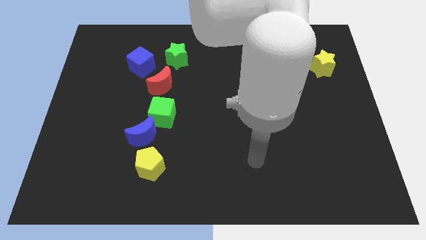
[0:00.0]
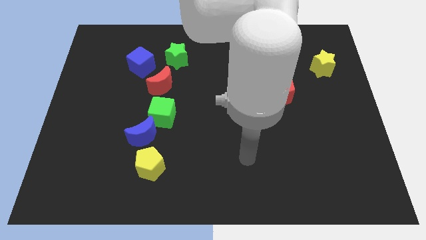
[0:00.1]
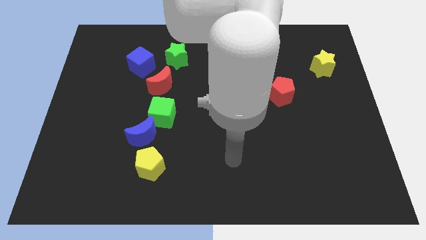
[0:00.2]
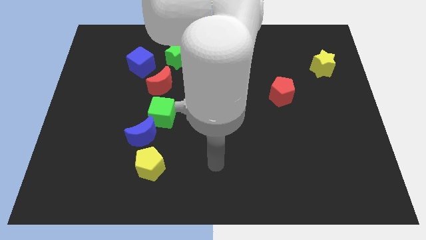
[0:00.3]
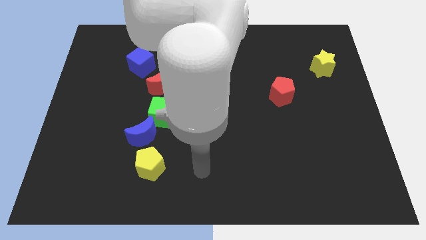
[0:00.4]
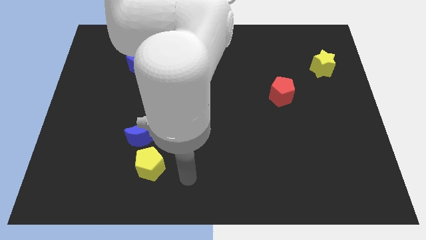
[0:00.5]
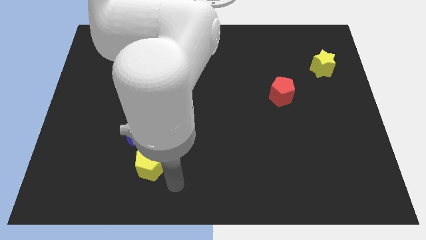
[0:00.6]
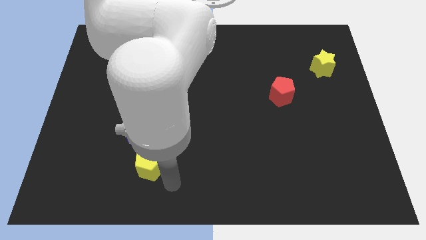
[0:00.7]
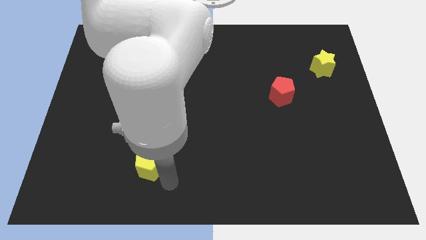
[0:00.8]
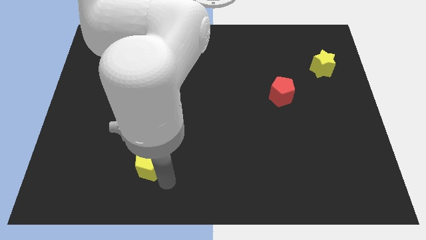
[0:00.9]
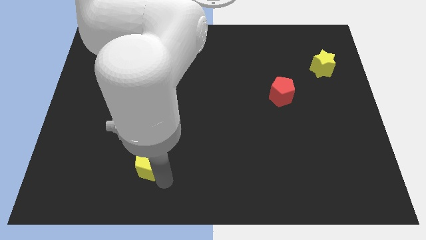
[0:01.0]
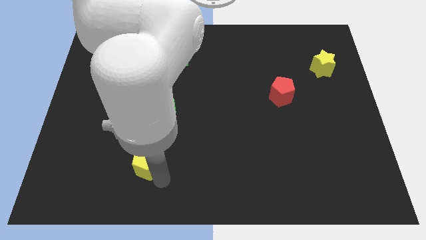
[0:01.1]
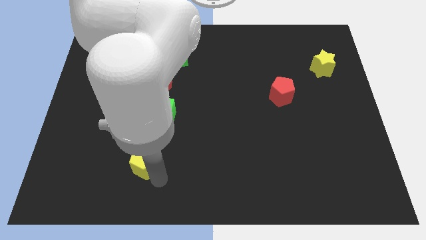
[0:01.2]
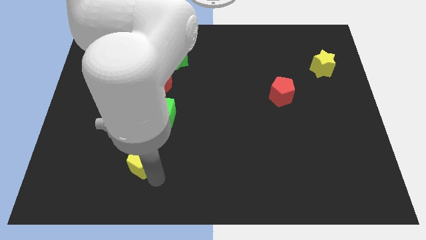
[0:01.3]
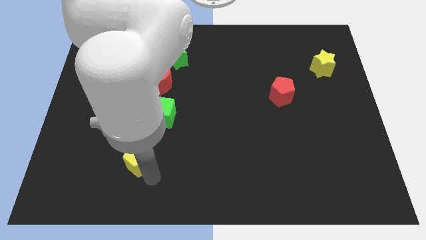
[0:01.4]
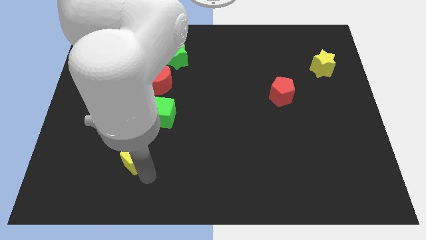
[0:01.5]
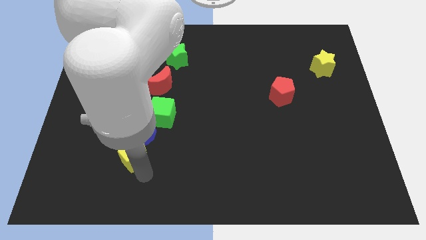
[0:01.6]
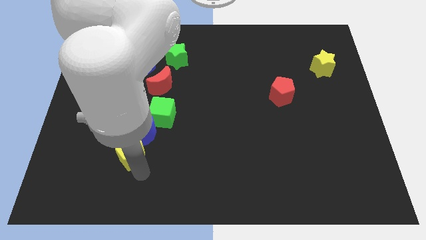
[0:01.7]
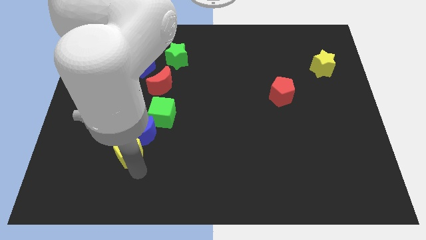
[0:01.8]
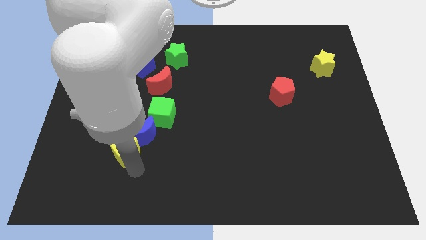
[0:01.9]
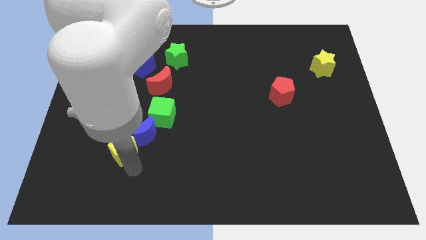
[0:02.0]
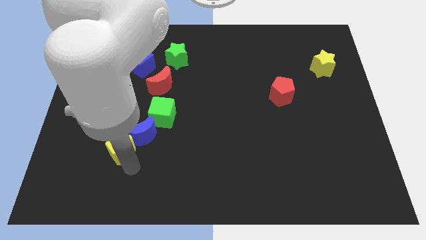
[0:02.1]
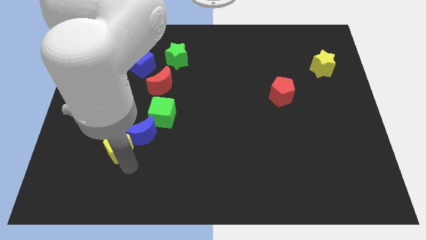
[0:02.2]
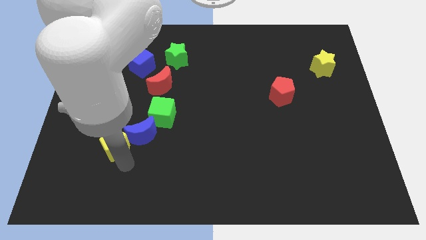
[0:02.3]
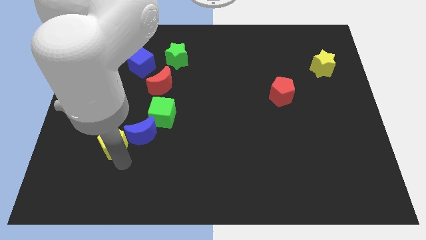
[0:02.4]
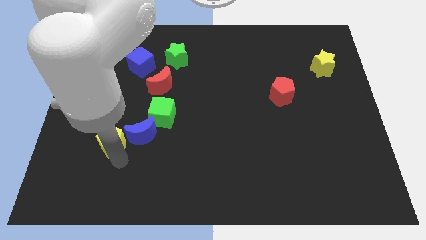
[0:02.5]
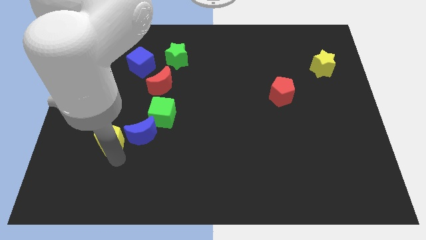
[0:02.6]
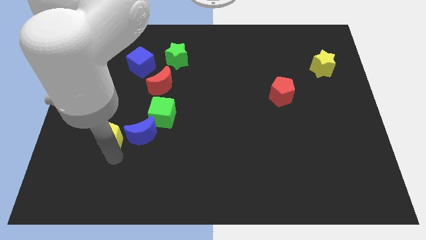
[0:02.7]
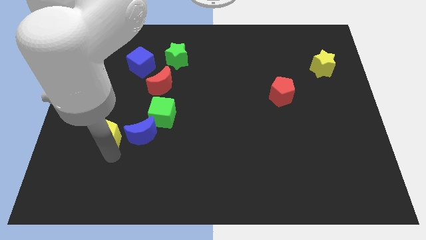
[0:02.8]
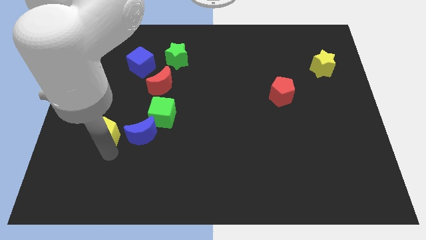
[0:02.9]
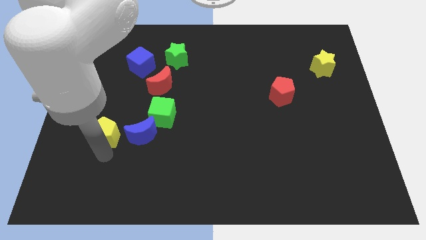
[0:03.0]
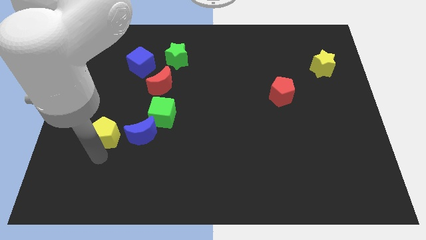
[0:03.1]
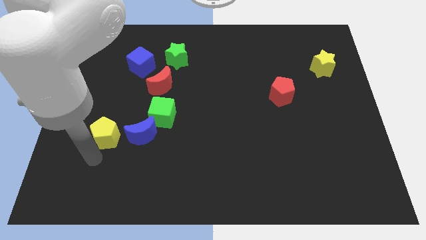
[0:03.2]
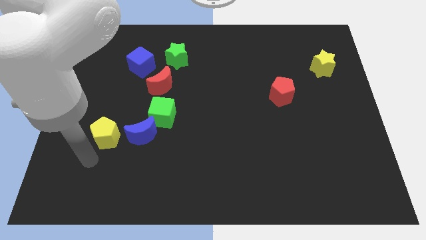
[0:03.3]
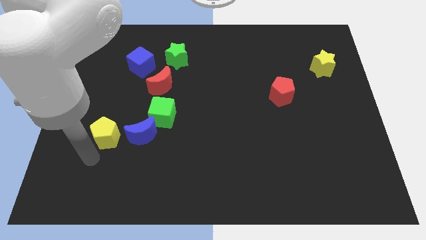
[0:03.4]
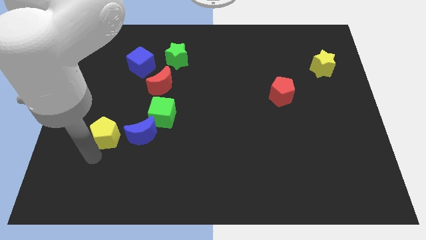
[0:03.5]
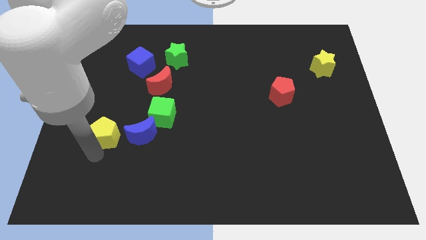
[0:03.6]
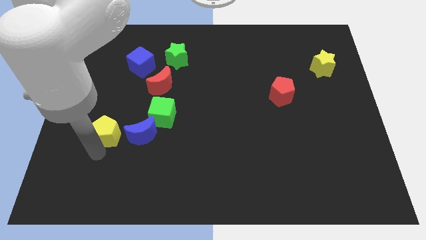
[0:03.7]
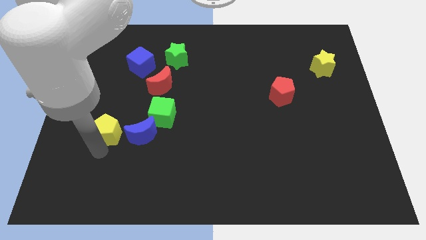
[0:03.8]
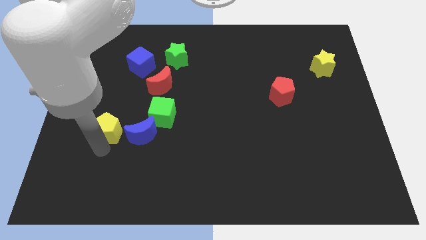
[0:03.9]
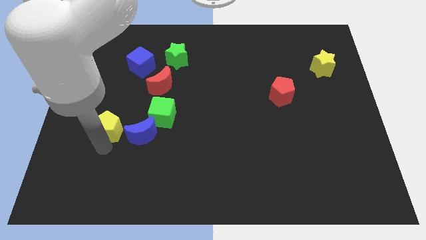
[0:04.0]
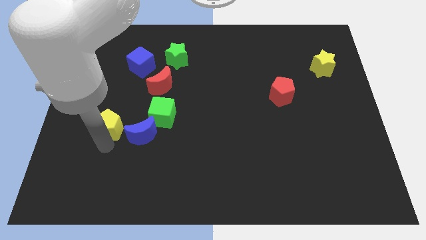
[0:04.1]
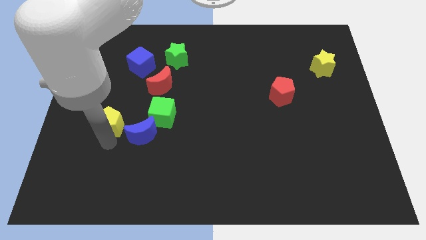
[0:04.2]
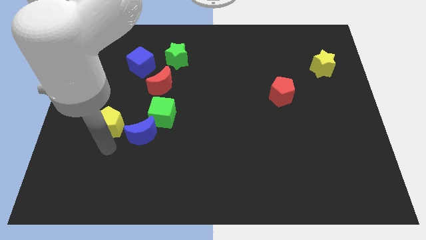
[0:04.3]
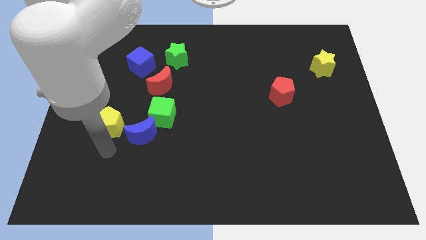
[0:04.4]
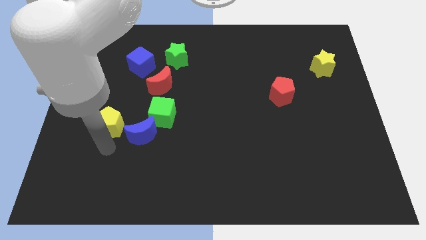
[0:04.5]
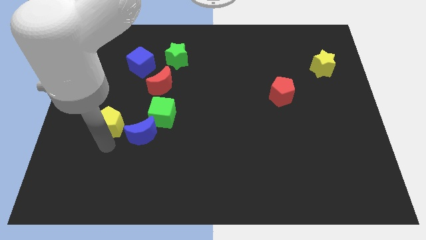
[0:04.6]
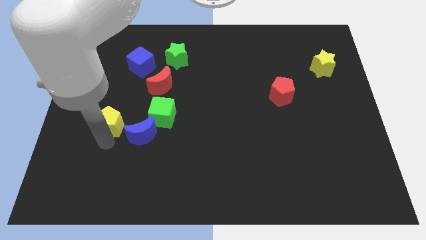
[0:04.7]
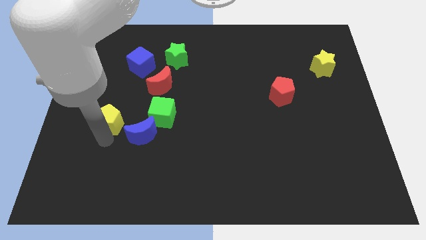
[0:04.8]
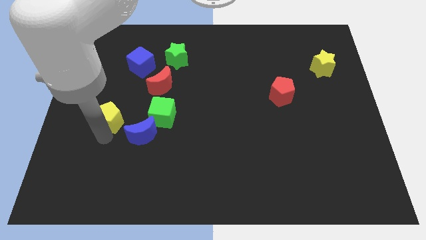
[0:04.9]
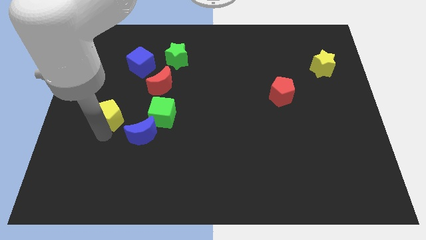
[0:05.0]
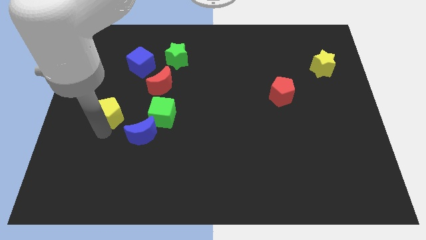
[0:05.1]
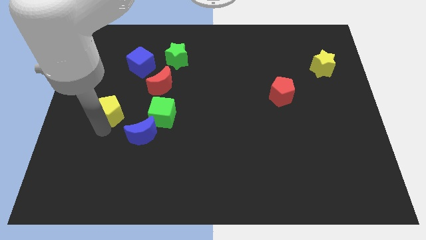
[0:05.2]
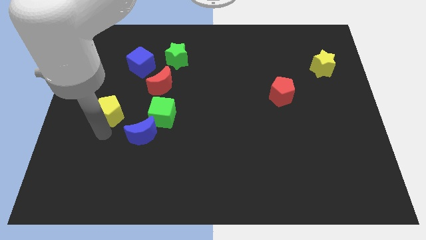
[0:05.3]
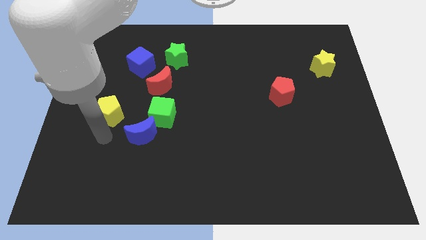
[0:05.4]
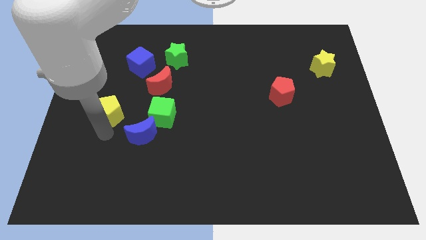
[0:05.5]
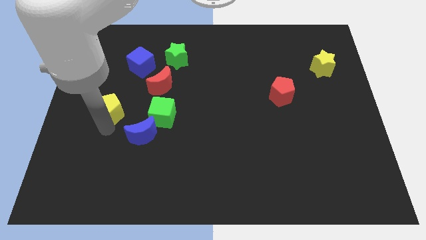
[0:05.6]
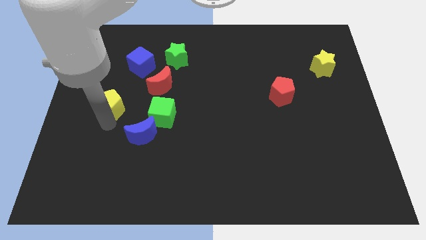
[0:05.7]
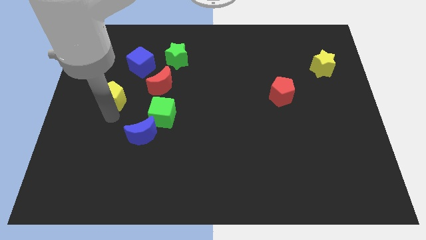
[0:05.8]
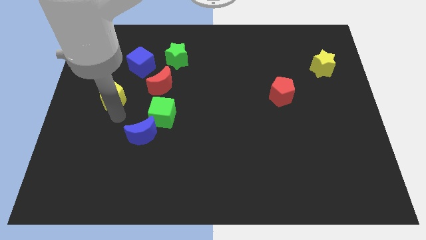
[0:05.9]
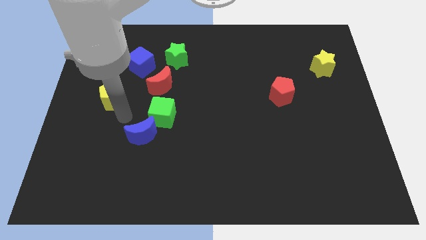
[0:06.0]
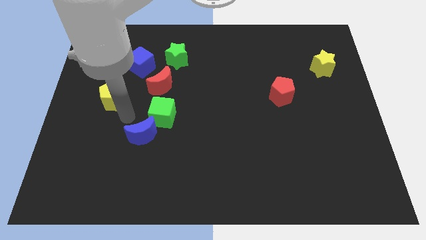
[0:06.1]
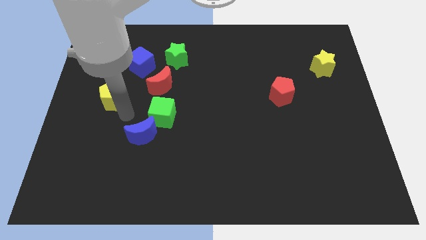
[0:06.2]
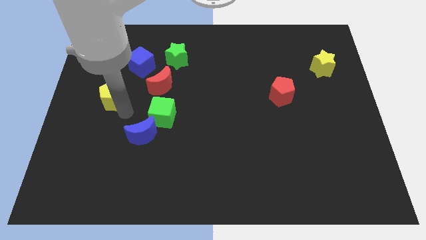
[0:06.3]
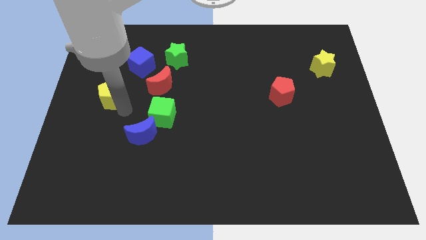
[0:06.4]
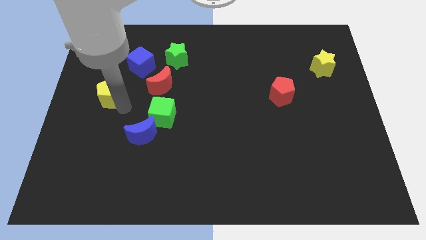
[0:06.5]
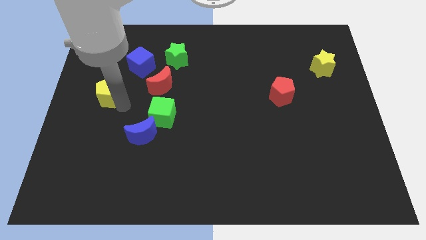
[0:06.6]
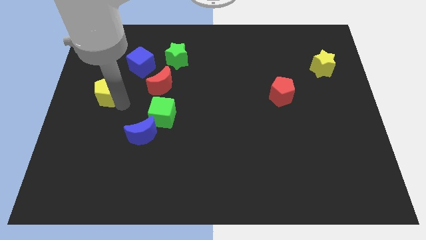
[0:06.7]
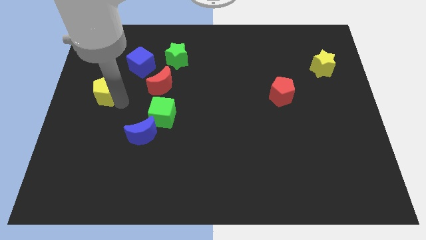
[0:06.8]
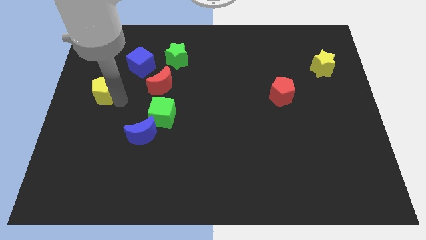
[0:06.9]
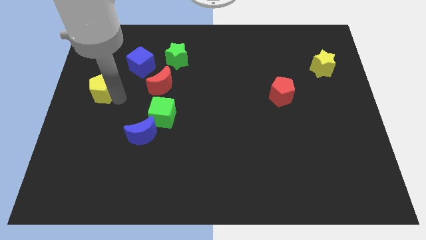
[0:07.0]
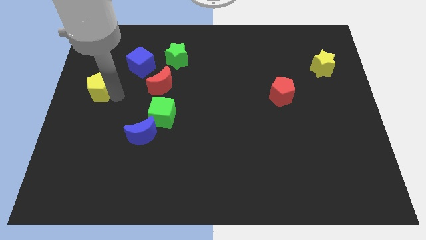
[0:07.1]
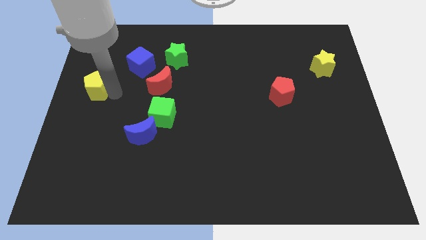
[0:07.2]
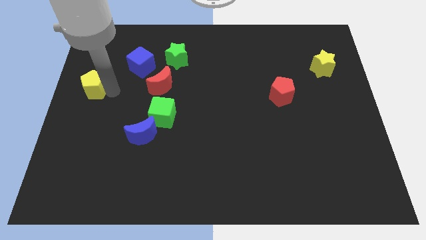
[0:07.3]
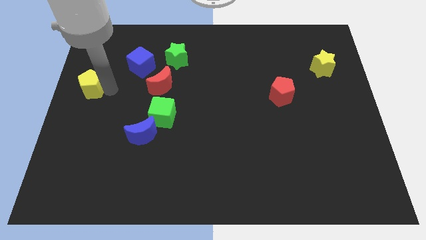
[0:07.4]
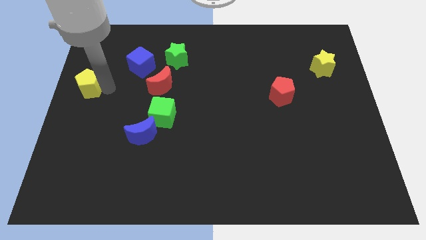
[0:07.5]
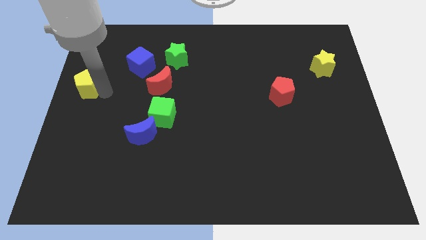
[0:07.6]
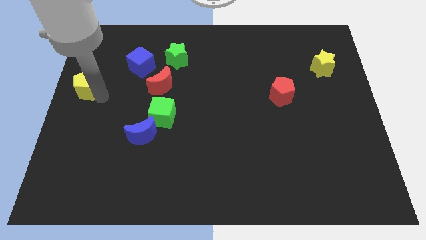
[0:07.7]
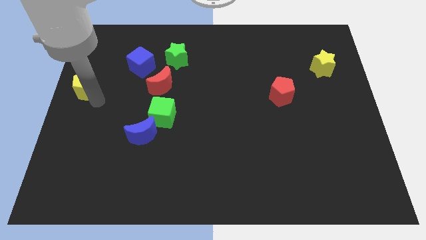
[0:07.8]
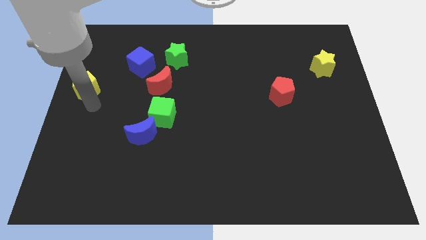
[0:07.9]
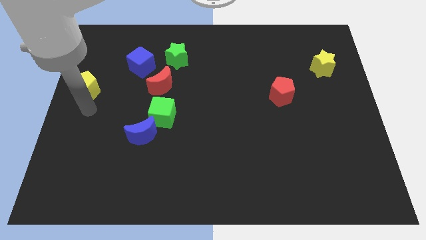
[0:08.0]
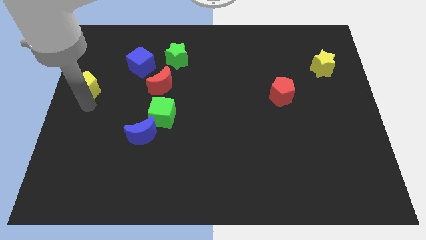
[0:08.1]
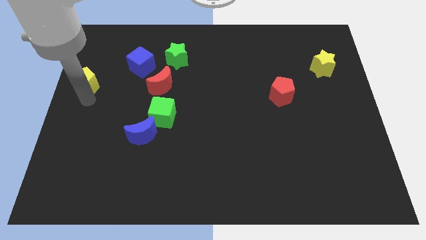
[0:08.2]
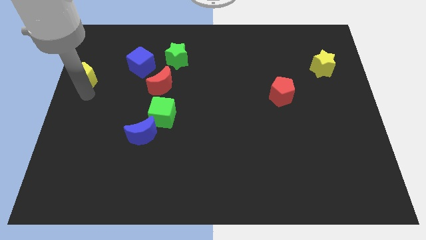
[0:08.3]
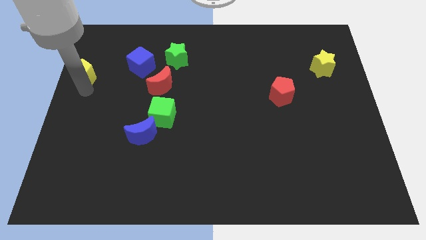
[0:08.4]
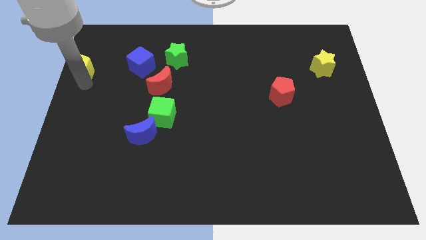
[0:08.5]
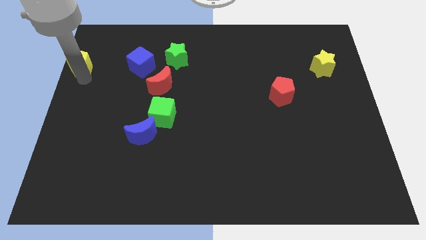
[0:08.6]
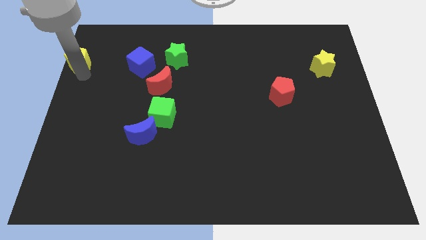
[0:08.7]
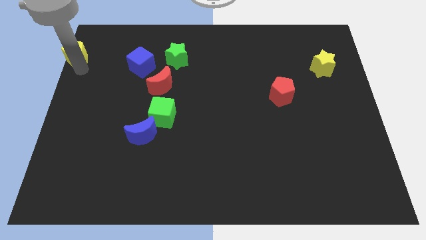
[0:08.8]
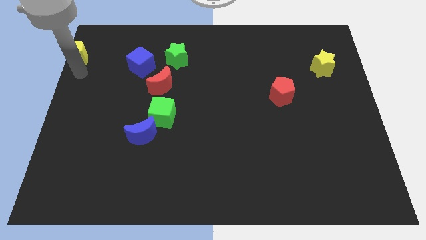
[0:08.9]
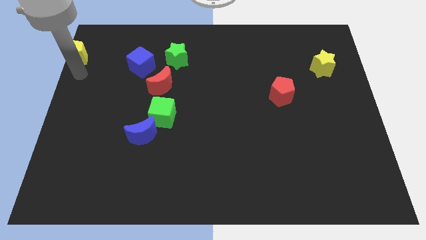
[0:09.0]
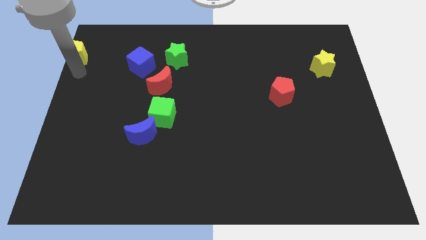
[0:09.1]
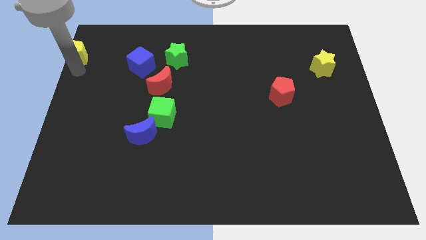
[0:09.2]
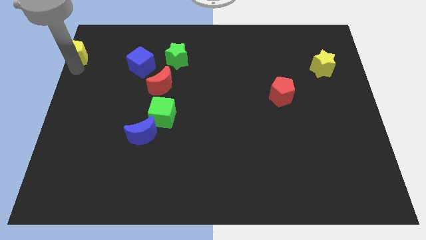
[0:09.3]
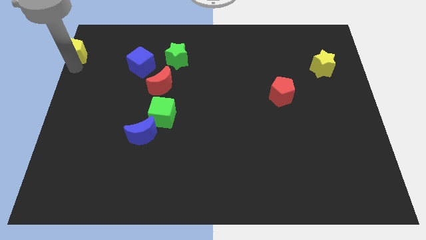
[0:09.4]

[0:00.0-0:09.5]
push the yellow pentagon to the top left of the board
